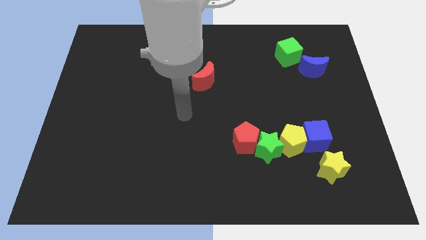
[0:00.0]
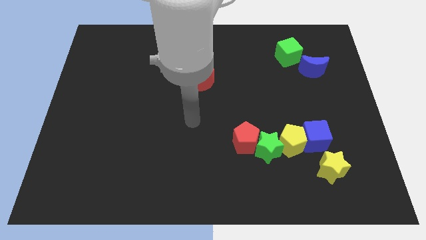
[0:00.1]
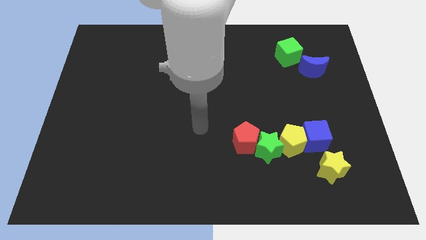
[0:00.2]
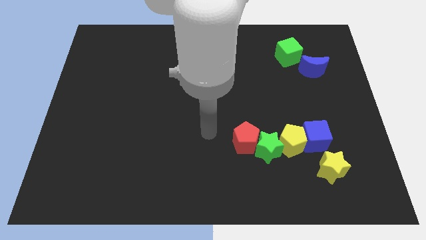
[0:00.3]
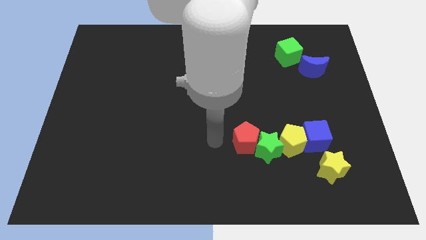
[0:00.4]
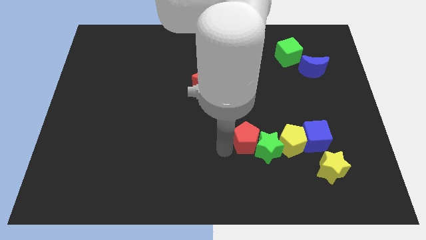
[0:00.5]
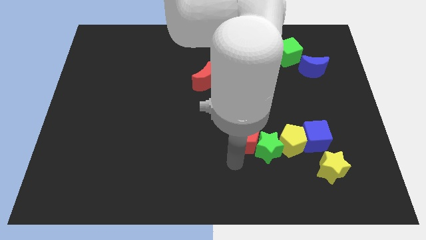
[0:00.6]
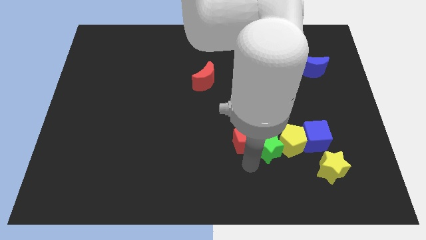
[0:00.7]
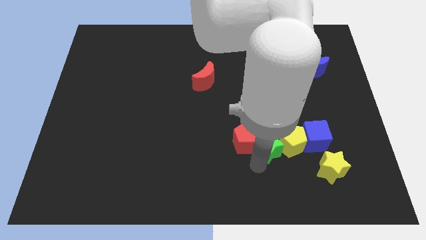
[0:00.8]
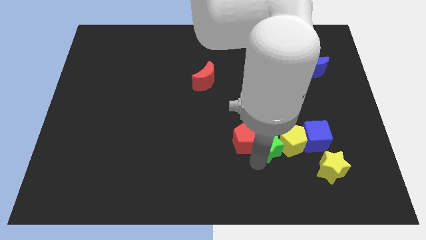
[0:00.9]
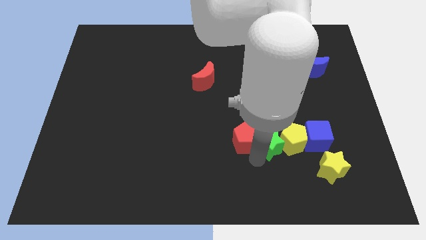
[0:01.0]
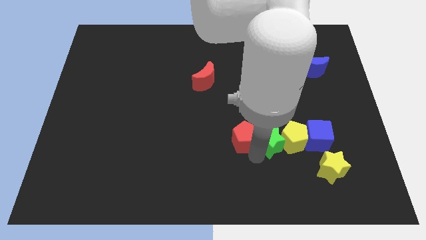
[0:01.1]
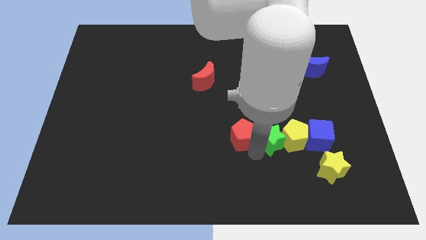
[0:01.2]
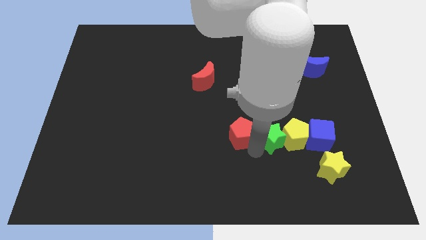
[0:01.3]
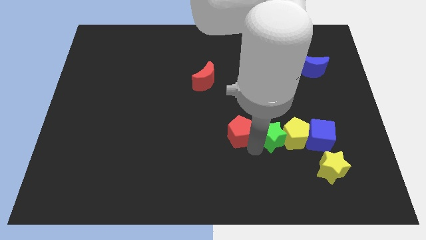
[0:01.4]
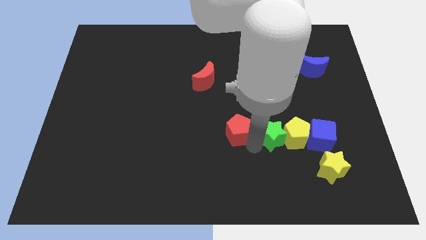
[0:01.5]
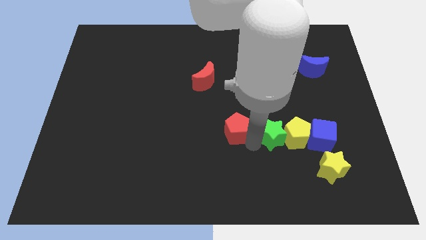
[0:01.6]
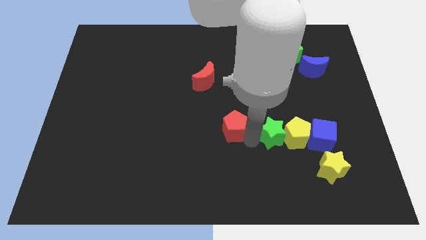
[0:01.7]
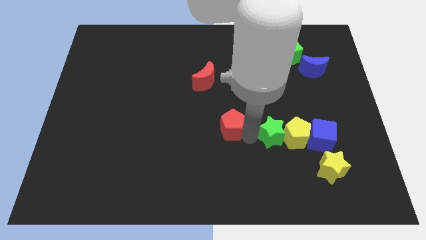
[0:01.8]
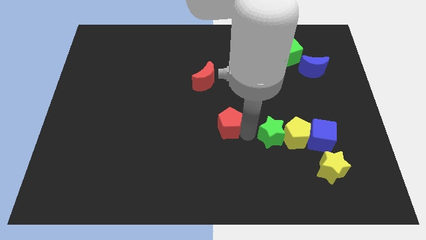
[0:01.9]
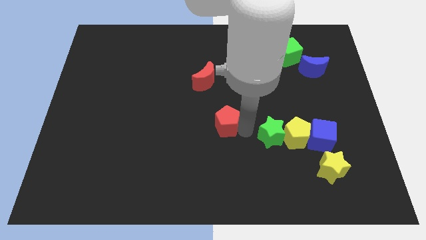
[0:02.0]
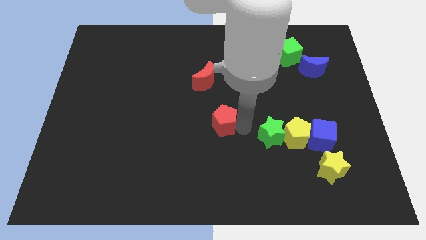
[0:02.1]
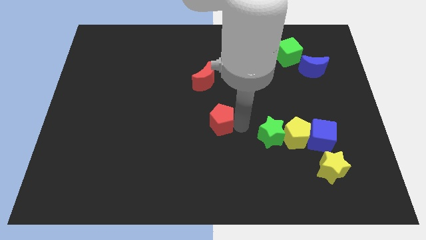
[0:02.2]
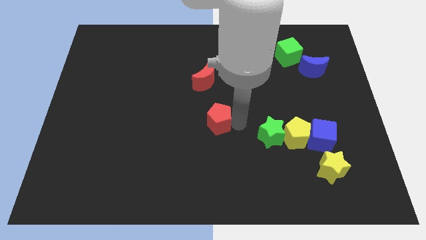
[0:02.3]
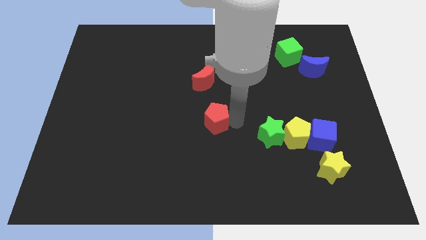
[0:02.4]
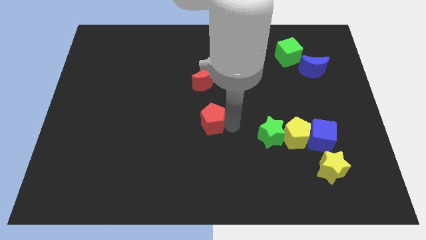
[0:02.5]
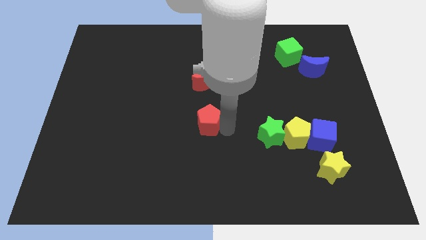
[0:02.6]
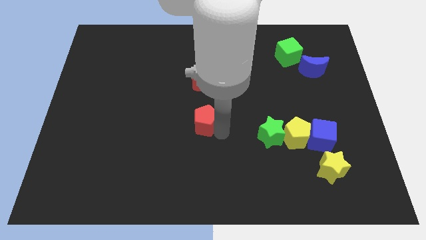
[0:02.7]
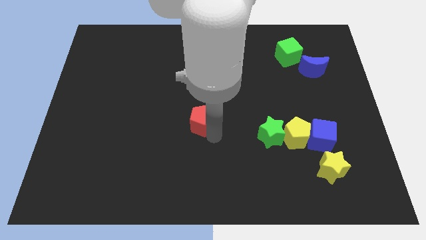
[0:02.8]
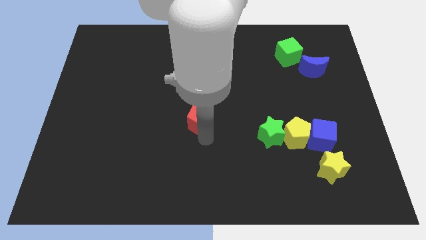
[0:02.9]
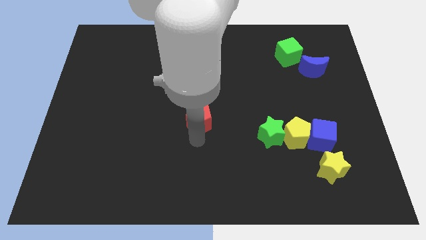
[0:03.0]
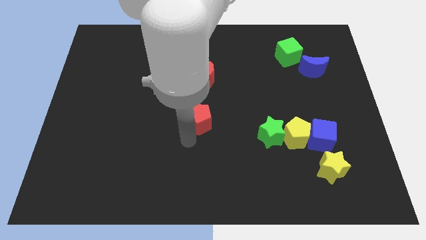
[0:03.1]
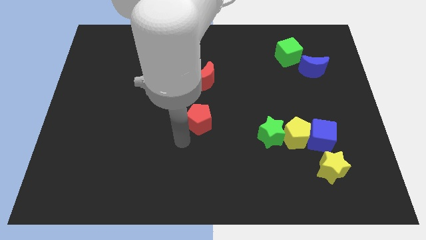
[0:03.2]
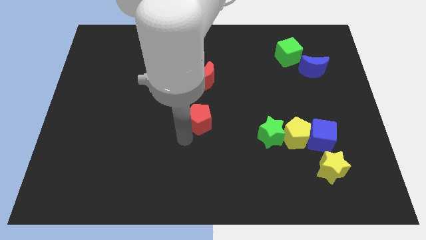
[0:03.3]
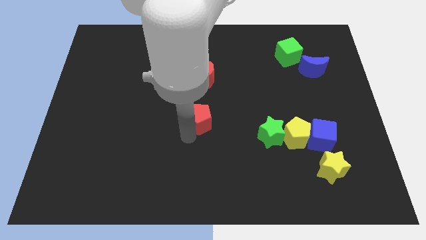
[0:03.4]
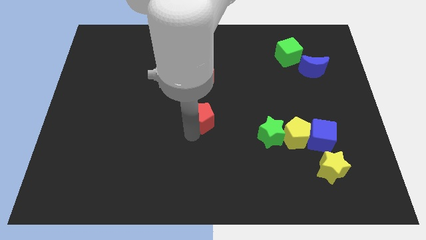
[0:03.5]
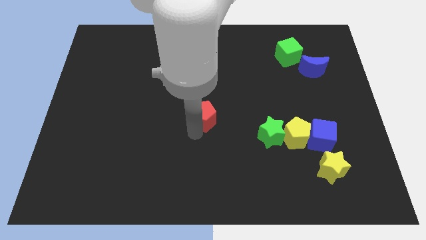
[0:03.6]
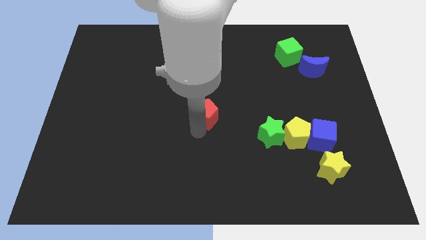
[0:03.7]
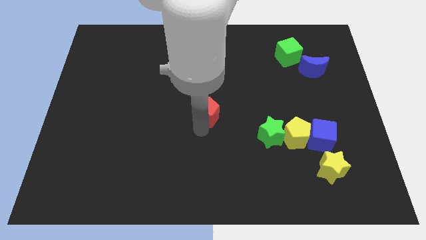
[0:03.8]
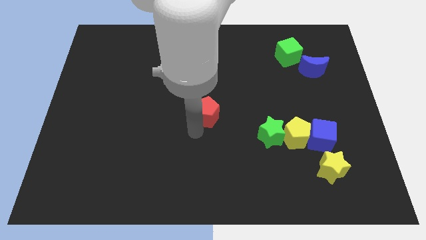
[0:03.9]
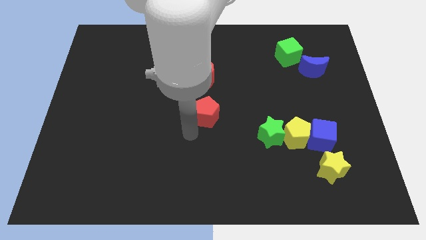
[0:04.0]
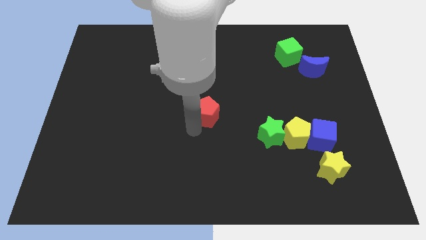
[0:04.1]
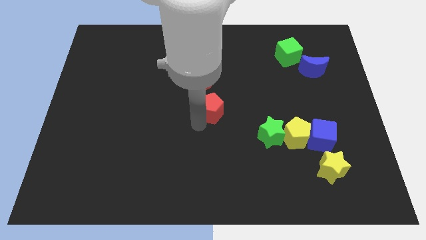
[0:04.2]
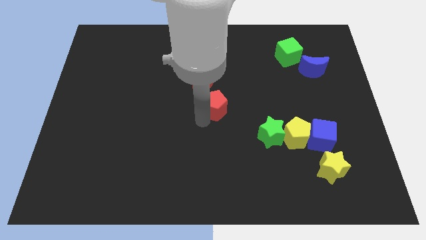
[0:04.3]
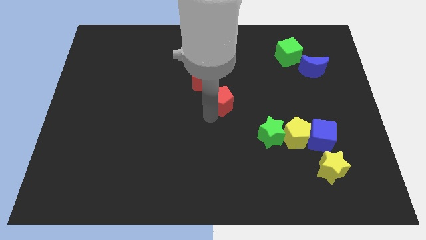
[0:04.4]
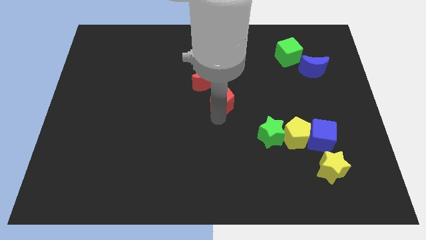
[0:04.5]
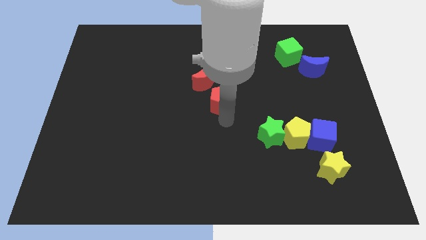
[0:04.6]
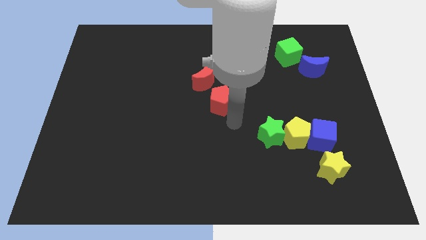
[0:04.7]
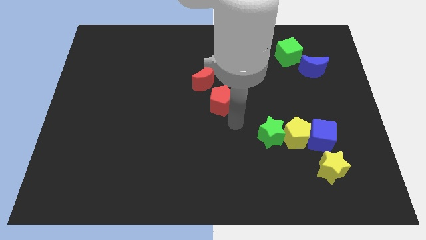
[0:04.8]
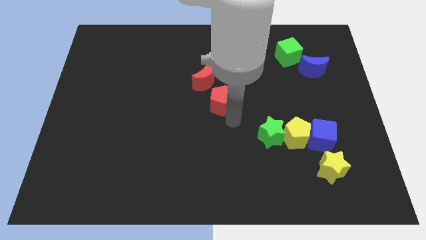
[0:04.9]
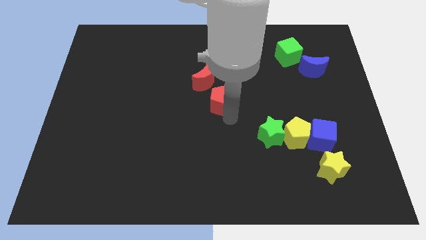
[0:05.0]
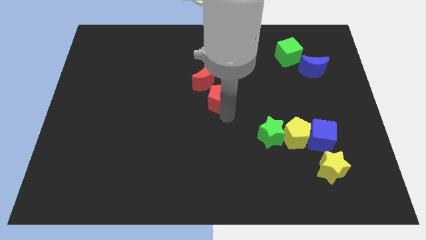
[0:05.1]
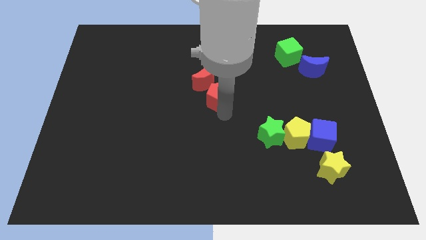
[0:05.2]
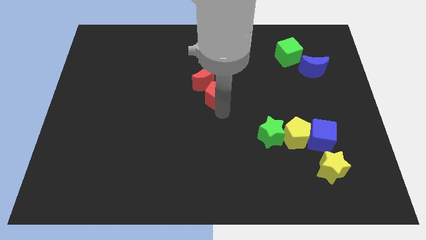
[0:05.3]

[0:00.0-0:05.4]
move the red pentagon towards the red moon

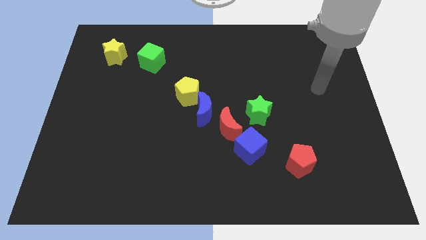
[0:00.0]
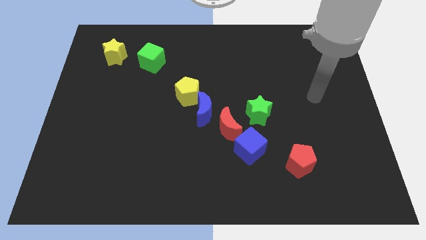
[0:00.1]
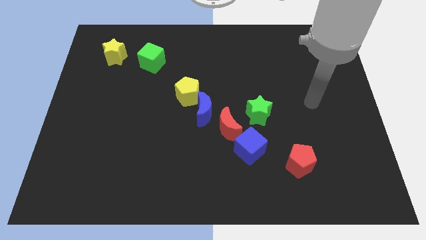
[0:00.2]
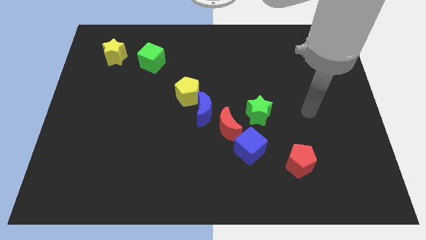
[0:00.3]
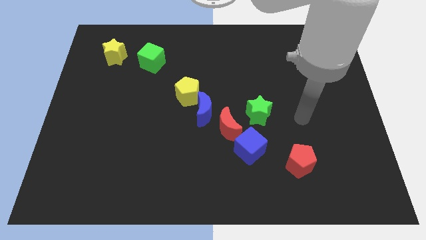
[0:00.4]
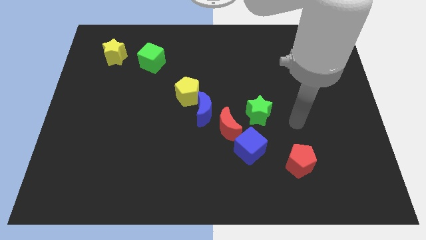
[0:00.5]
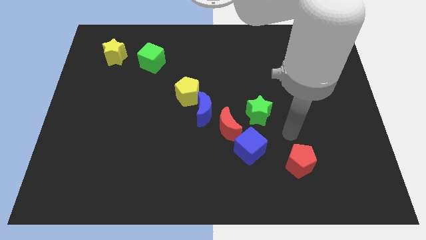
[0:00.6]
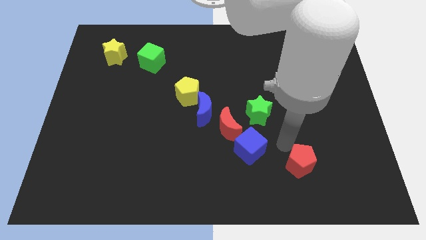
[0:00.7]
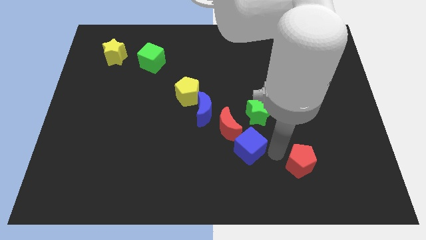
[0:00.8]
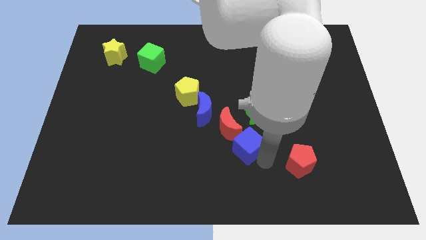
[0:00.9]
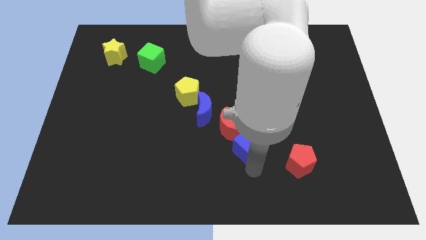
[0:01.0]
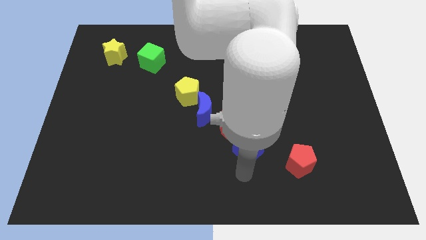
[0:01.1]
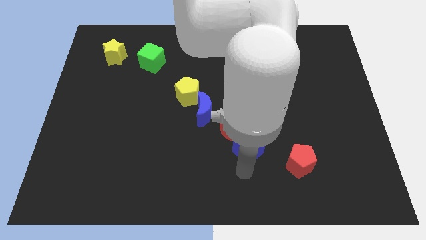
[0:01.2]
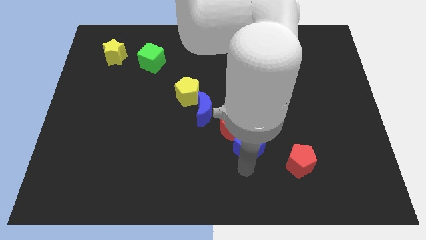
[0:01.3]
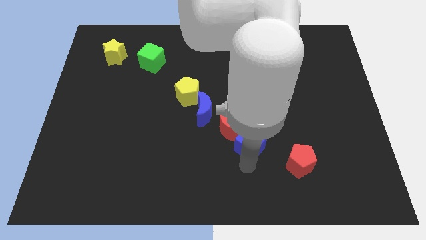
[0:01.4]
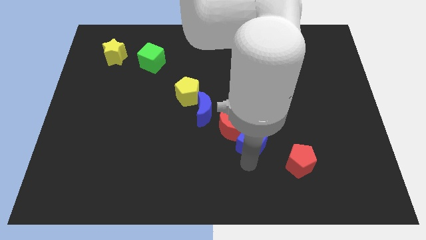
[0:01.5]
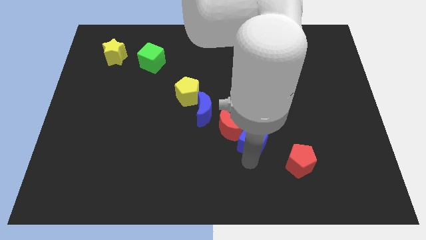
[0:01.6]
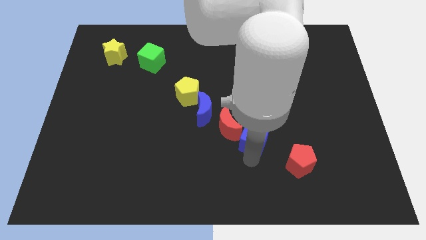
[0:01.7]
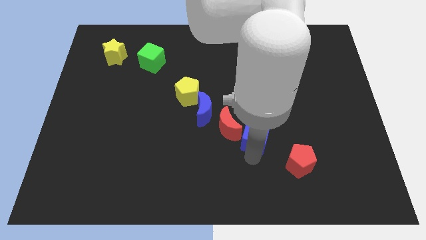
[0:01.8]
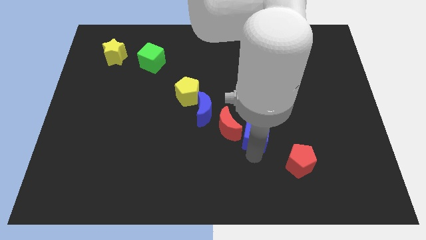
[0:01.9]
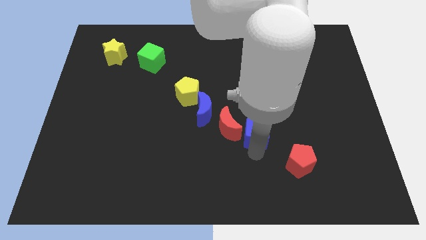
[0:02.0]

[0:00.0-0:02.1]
push the blue cube to the green star

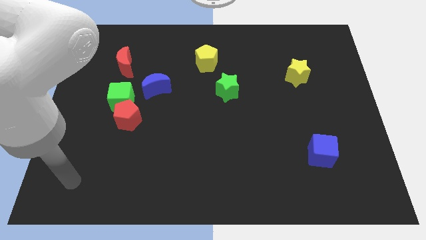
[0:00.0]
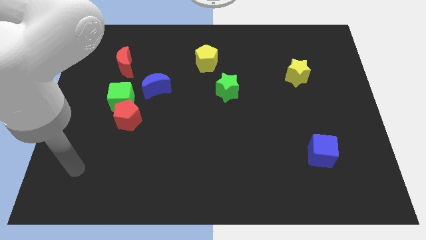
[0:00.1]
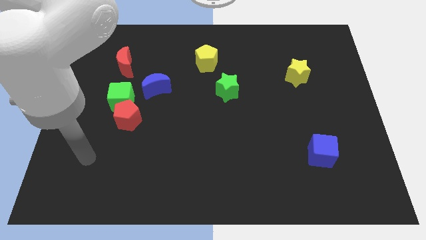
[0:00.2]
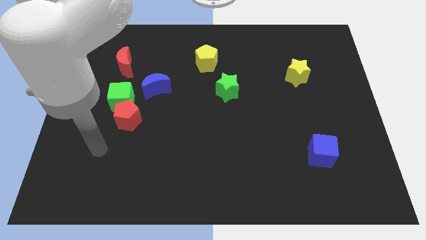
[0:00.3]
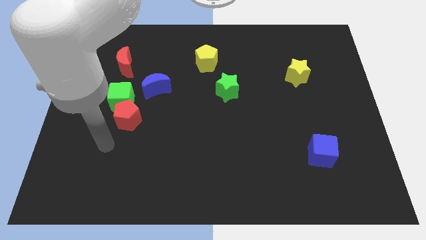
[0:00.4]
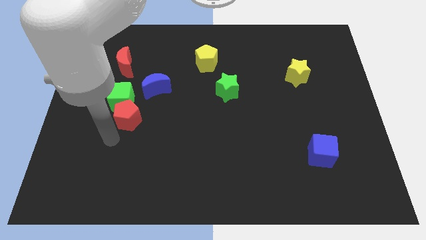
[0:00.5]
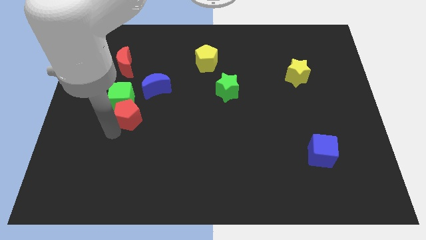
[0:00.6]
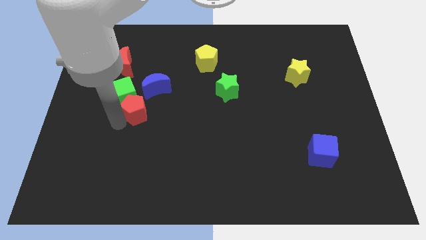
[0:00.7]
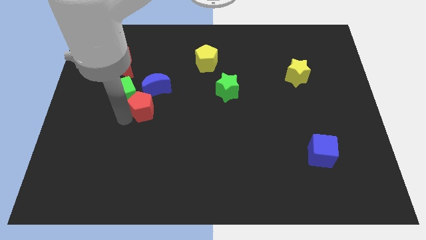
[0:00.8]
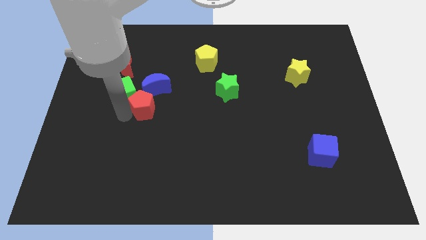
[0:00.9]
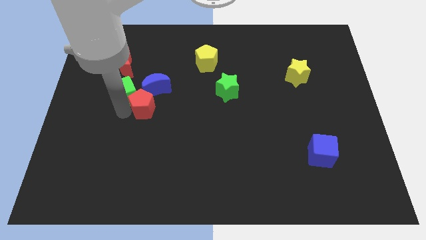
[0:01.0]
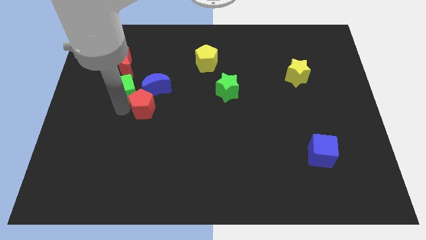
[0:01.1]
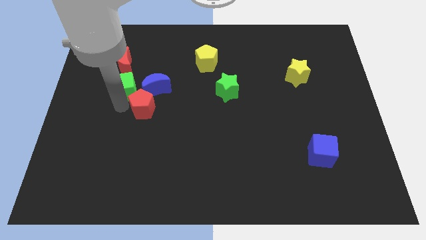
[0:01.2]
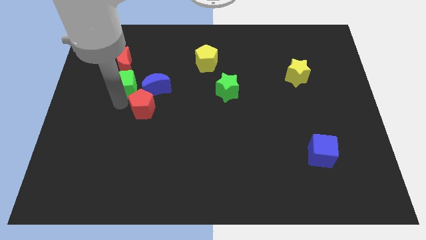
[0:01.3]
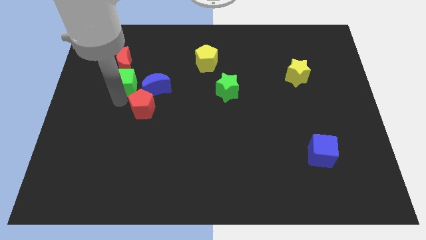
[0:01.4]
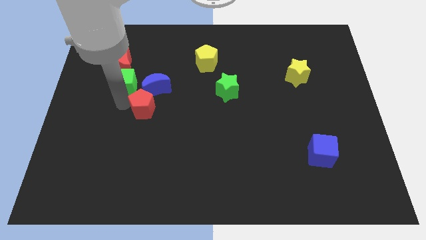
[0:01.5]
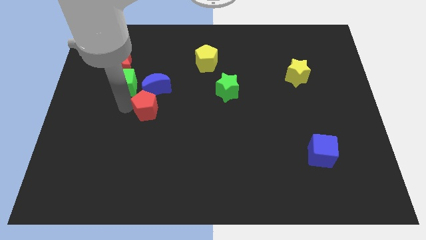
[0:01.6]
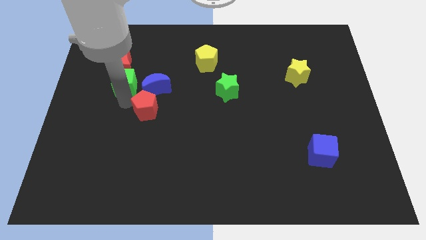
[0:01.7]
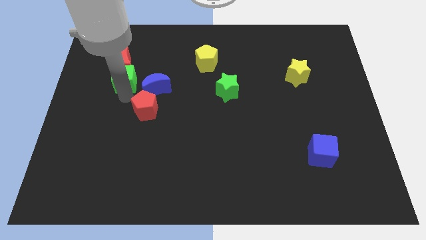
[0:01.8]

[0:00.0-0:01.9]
slide the green cube to the red moon
